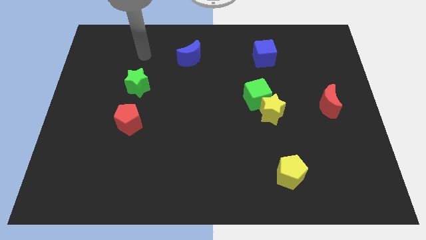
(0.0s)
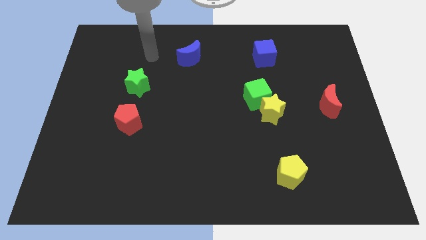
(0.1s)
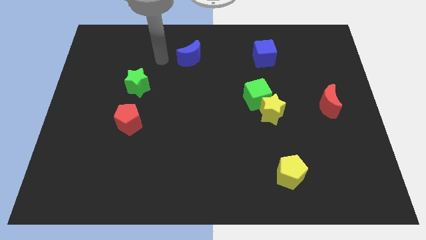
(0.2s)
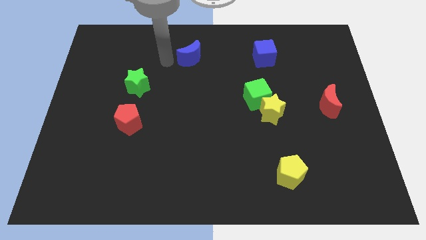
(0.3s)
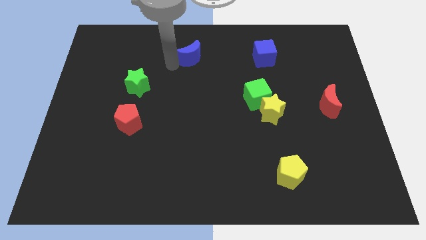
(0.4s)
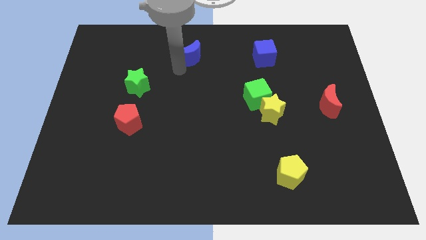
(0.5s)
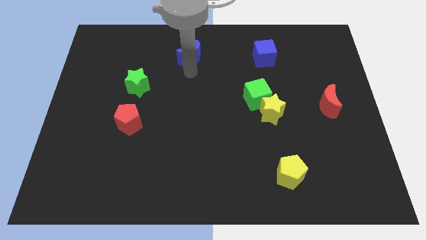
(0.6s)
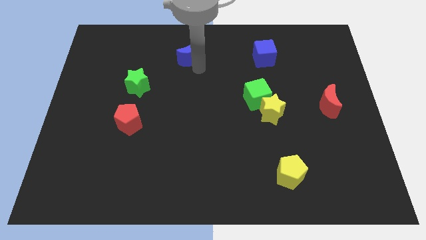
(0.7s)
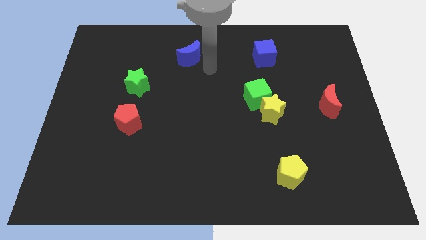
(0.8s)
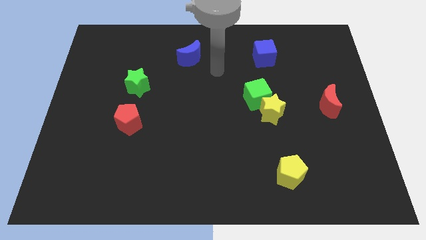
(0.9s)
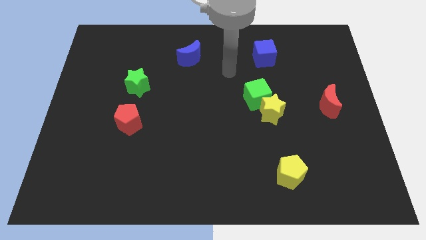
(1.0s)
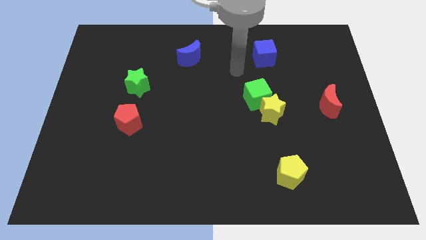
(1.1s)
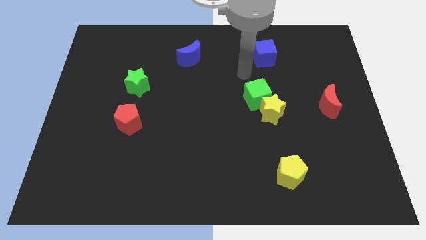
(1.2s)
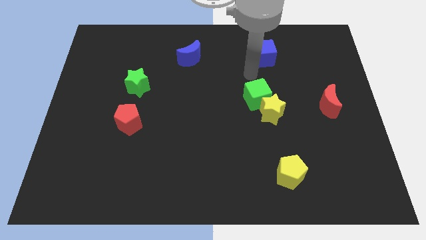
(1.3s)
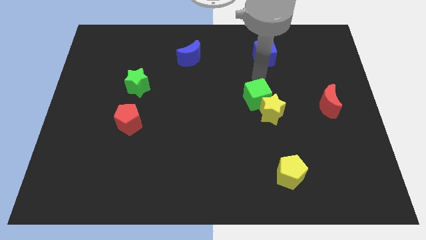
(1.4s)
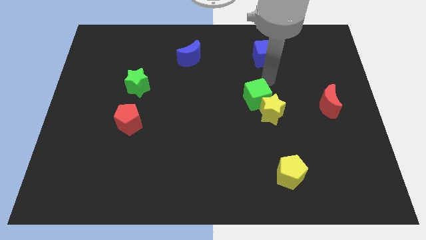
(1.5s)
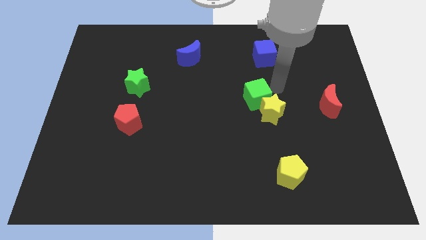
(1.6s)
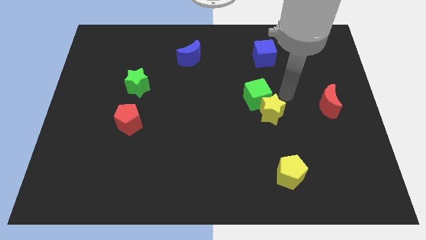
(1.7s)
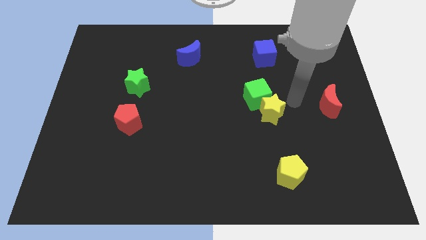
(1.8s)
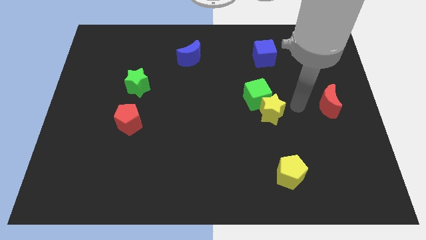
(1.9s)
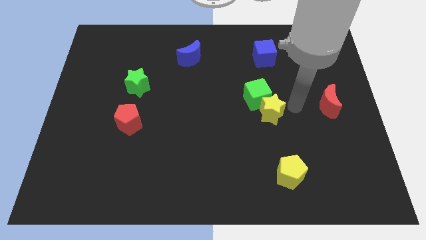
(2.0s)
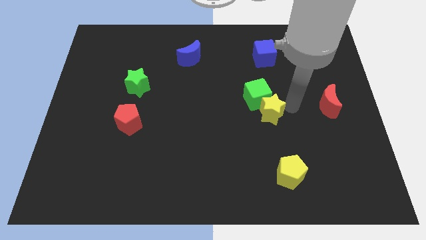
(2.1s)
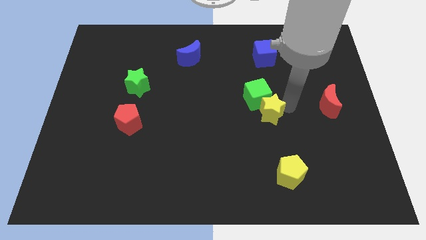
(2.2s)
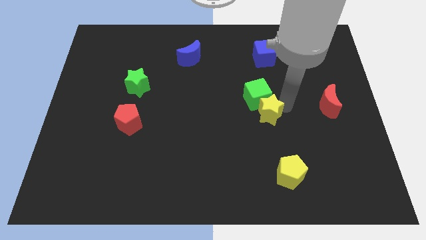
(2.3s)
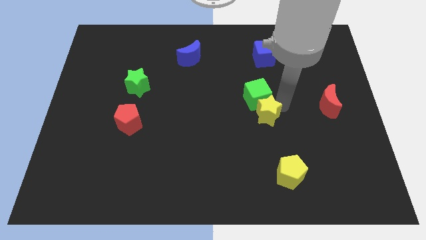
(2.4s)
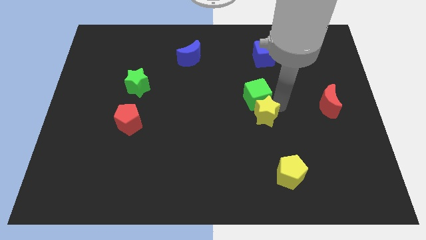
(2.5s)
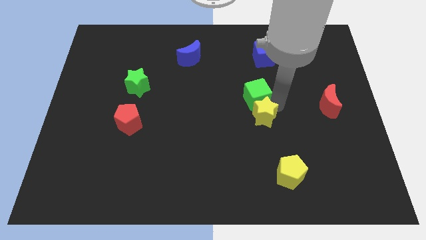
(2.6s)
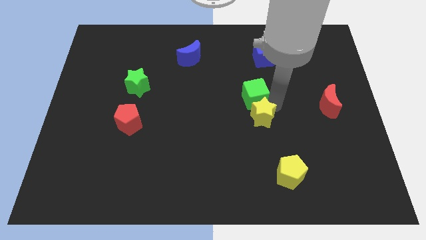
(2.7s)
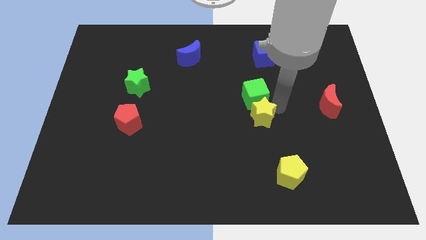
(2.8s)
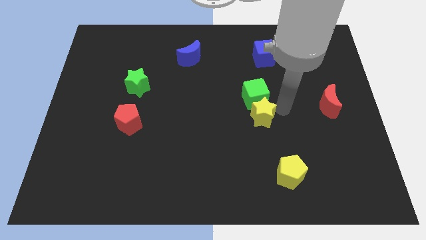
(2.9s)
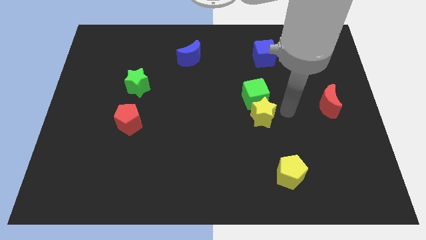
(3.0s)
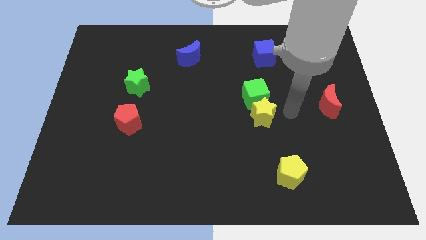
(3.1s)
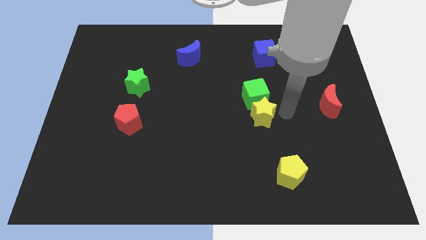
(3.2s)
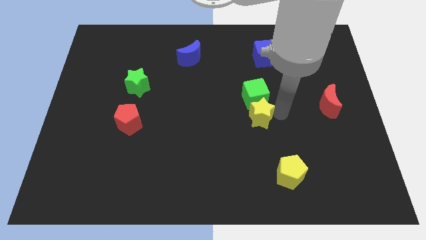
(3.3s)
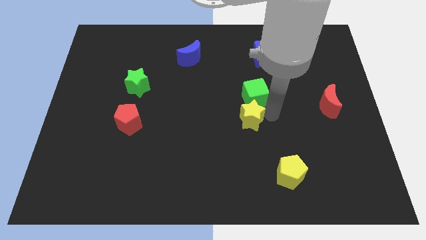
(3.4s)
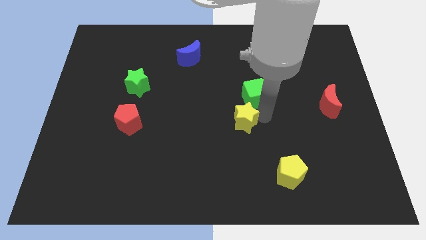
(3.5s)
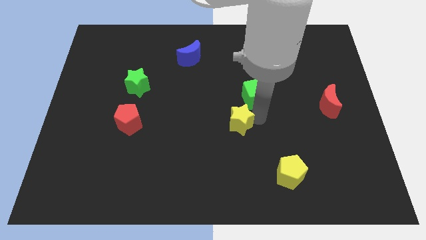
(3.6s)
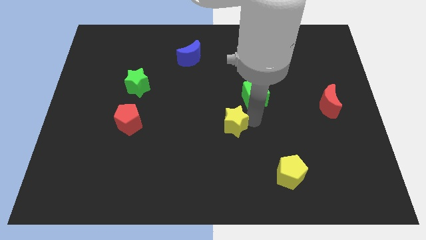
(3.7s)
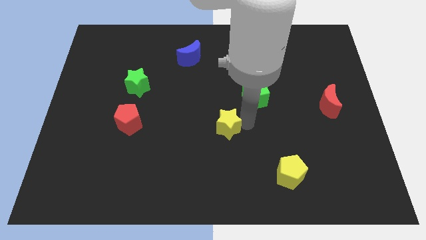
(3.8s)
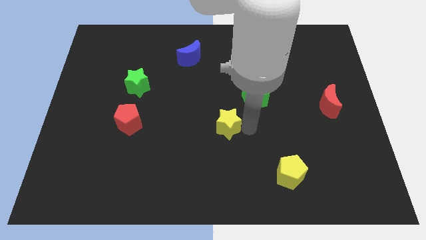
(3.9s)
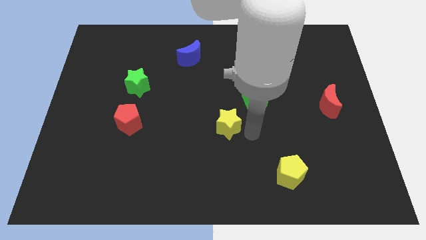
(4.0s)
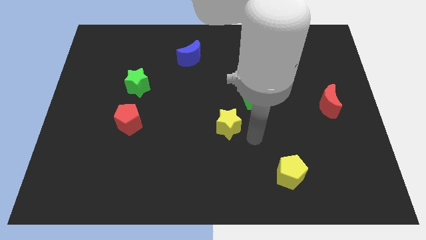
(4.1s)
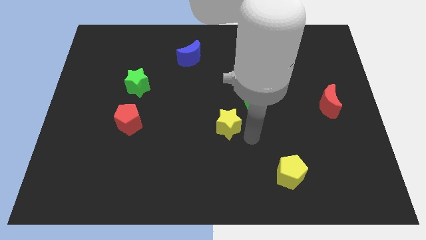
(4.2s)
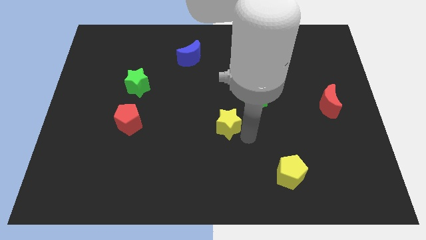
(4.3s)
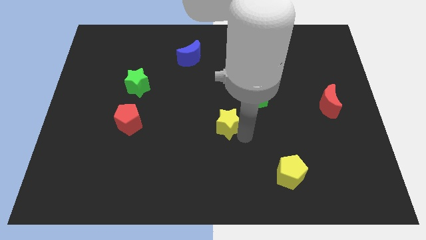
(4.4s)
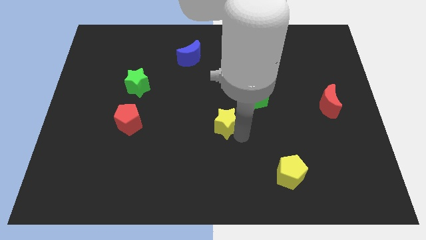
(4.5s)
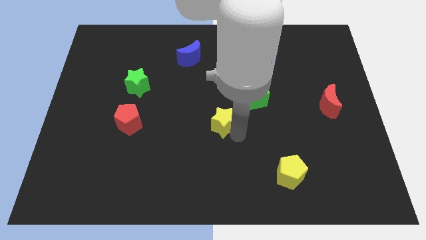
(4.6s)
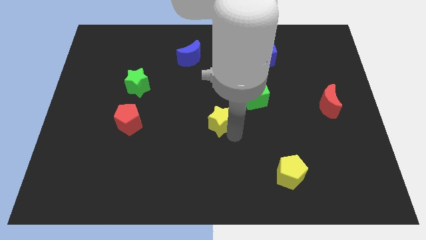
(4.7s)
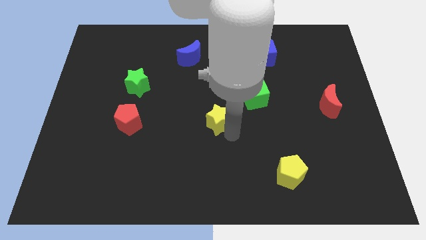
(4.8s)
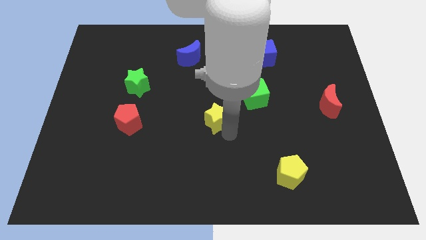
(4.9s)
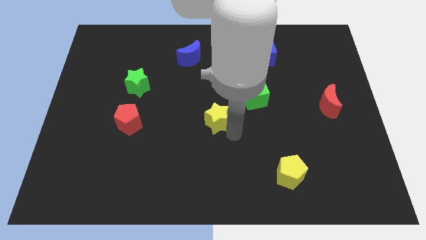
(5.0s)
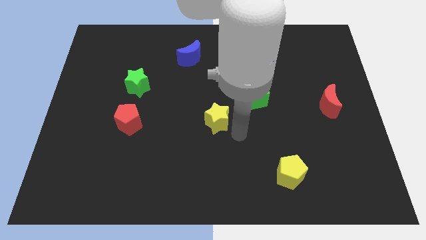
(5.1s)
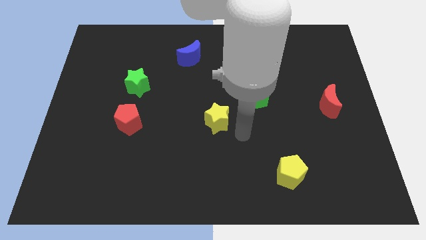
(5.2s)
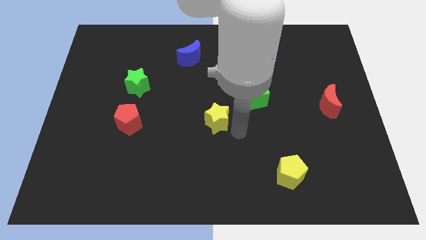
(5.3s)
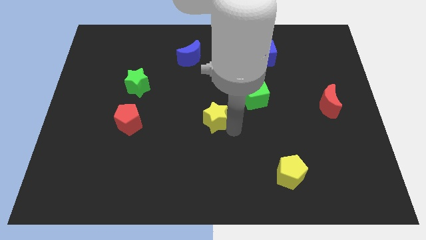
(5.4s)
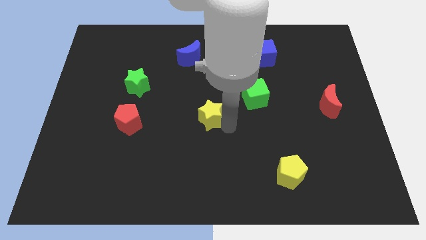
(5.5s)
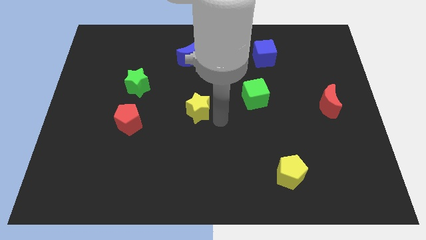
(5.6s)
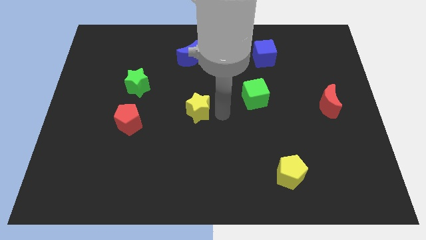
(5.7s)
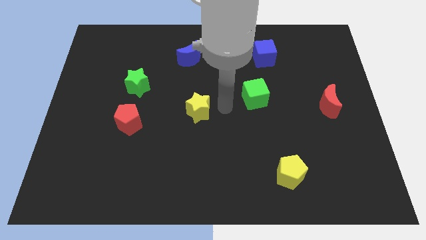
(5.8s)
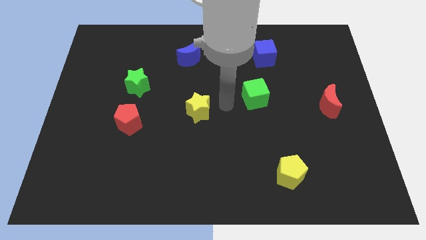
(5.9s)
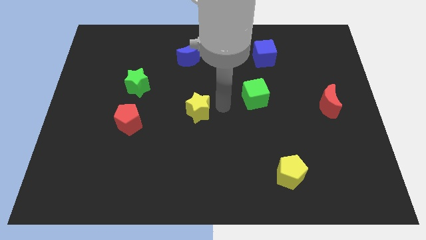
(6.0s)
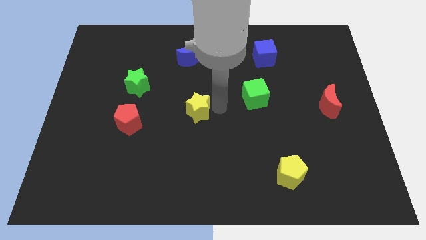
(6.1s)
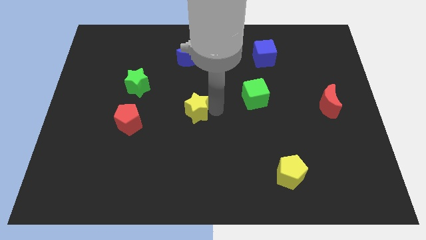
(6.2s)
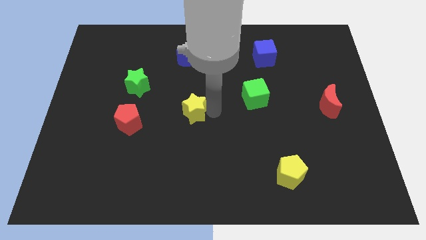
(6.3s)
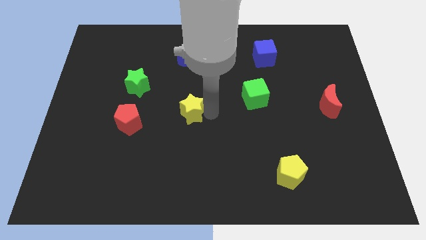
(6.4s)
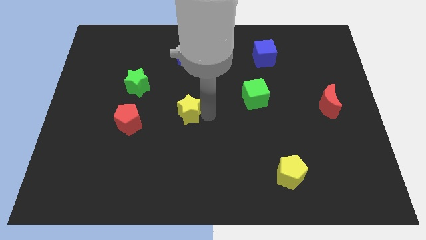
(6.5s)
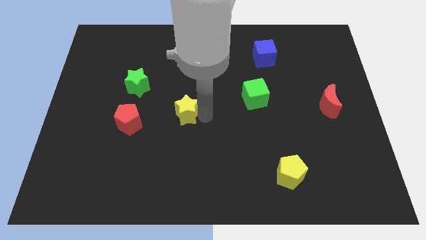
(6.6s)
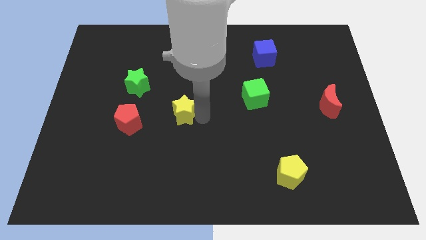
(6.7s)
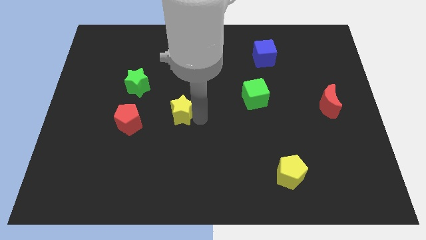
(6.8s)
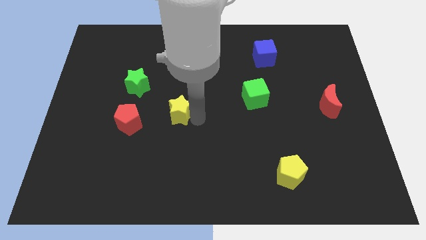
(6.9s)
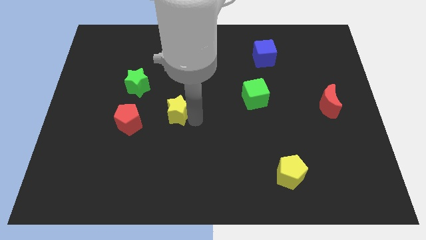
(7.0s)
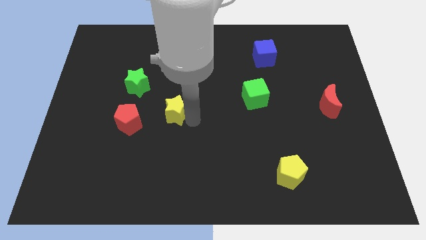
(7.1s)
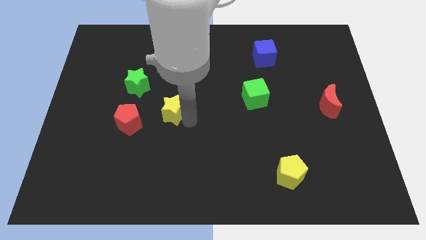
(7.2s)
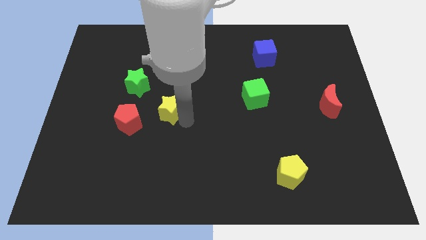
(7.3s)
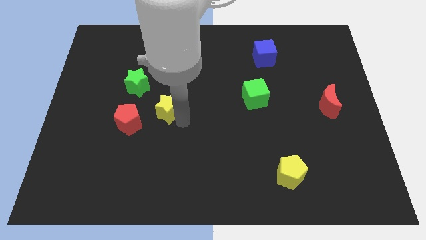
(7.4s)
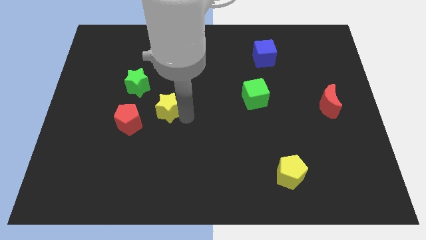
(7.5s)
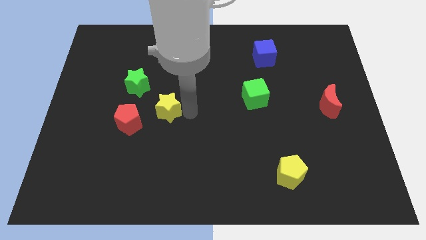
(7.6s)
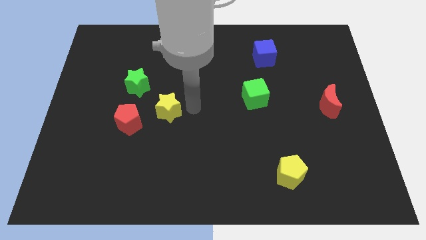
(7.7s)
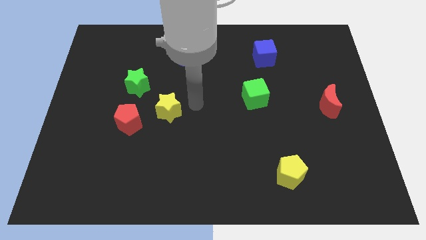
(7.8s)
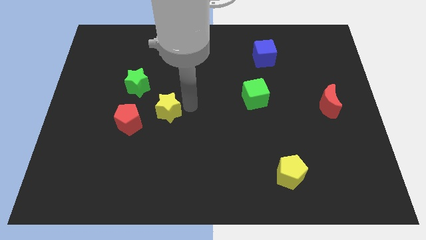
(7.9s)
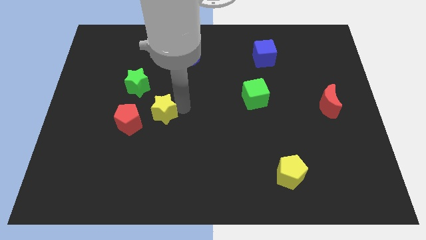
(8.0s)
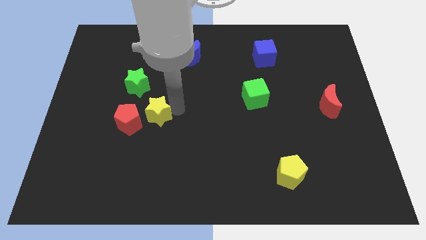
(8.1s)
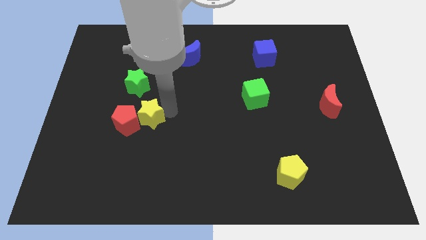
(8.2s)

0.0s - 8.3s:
push the yellow star towards the red pentagon
